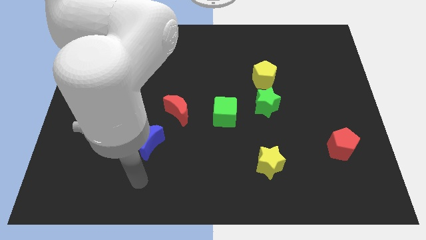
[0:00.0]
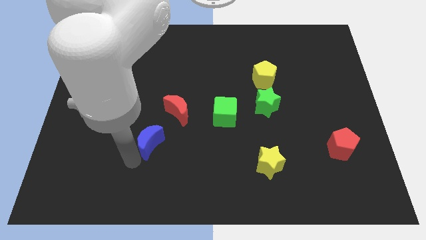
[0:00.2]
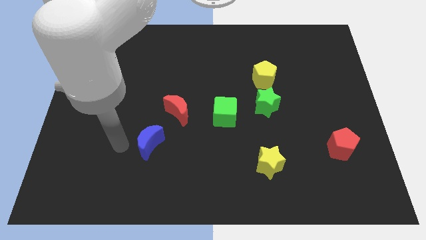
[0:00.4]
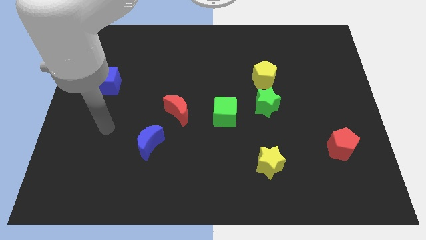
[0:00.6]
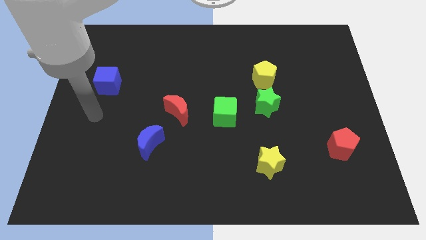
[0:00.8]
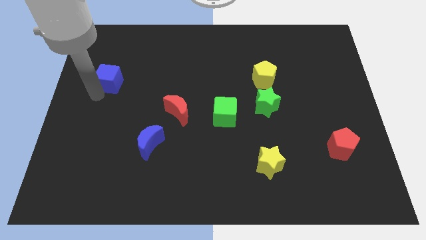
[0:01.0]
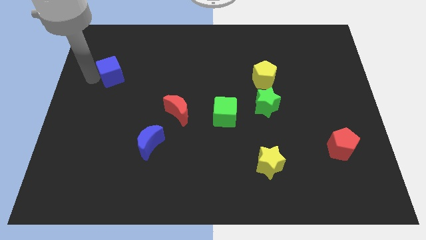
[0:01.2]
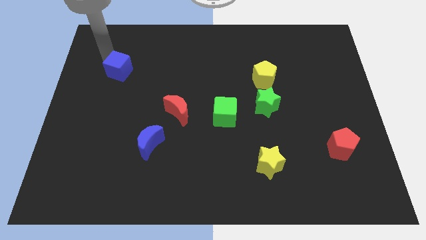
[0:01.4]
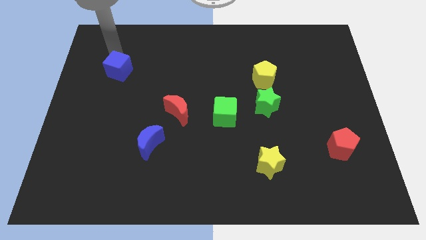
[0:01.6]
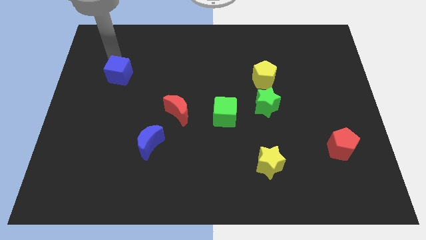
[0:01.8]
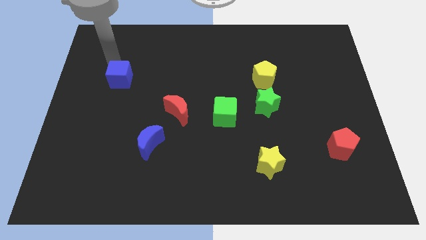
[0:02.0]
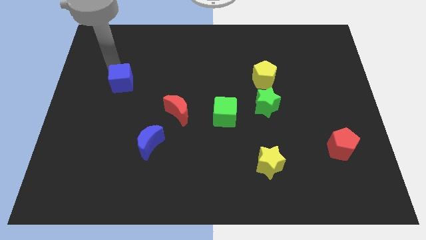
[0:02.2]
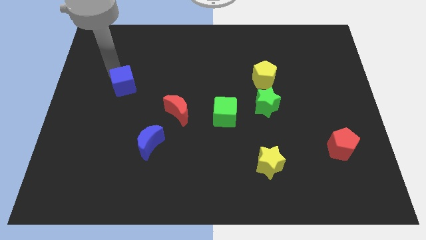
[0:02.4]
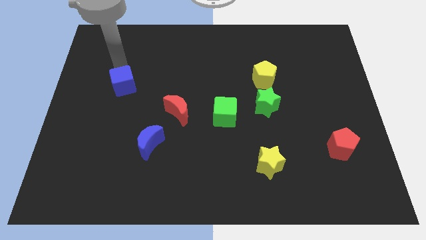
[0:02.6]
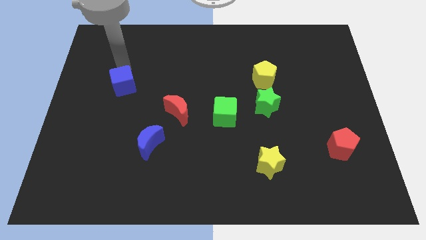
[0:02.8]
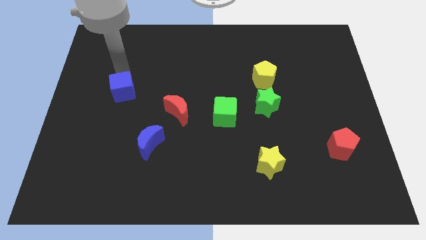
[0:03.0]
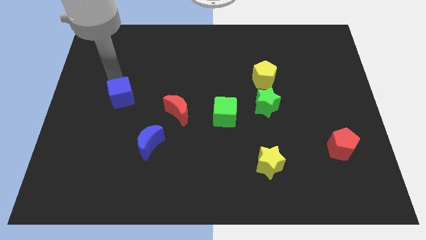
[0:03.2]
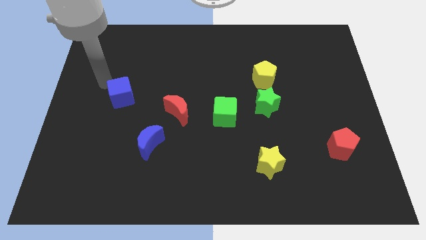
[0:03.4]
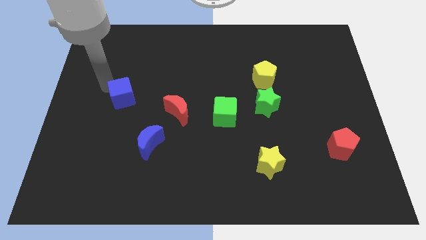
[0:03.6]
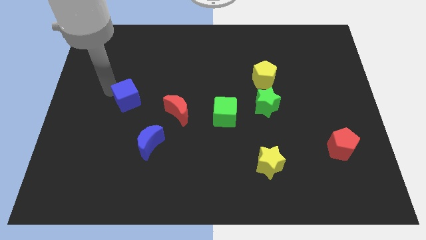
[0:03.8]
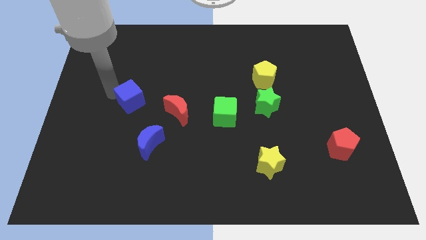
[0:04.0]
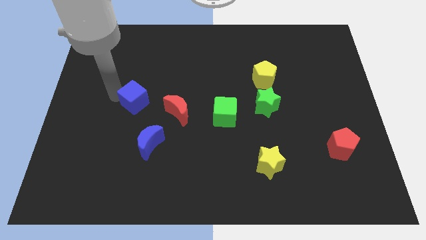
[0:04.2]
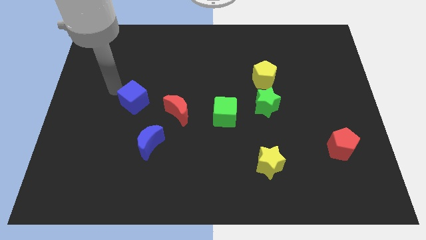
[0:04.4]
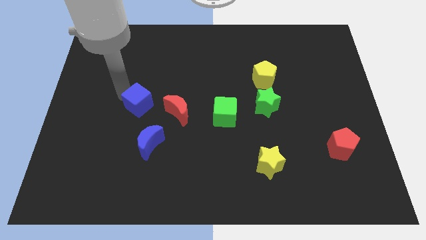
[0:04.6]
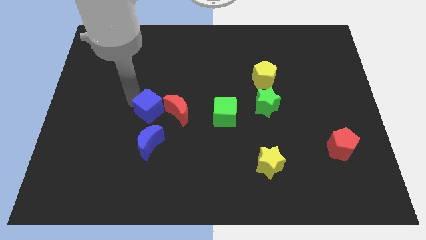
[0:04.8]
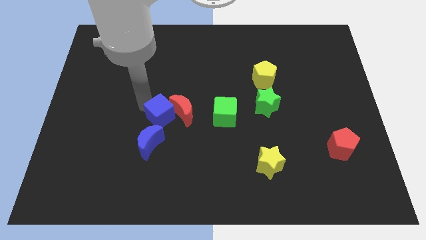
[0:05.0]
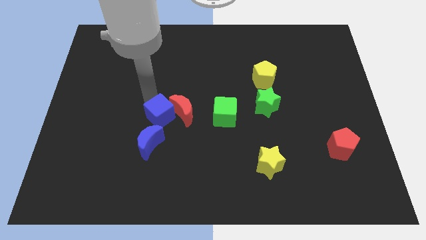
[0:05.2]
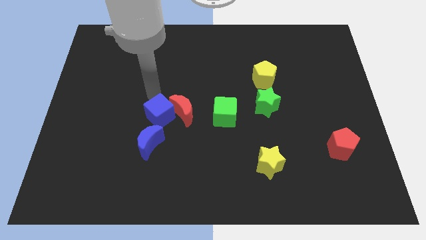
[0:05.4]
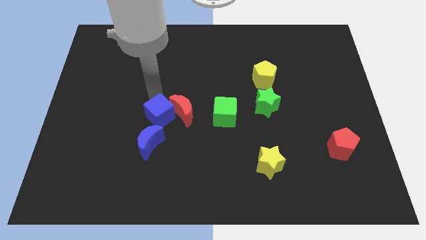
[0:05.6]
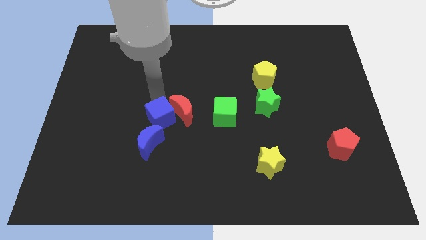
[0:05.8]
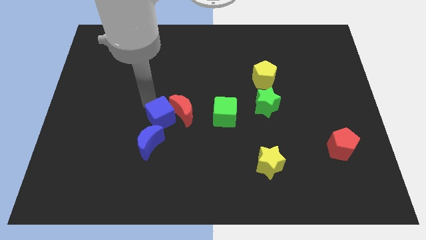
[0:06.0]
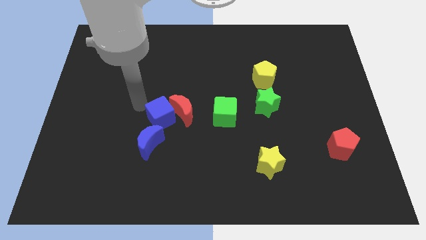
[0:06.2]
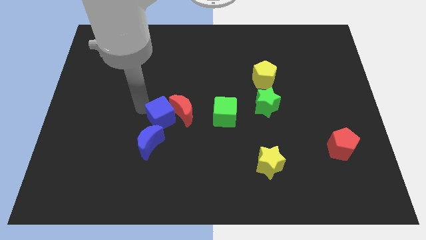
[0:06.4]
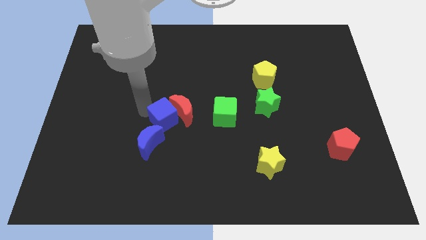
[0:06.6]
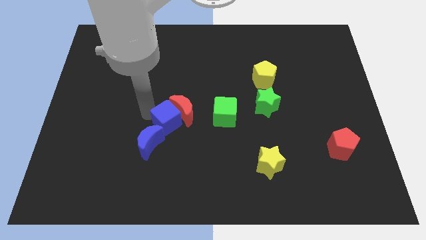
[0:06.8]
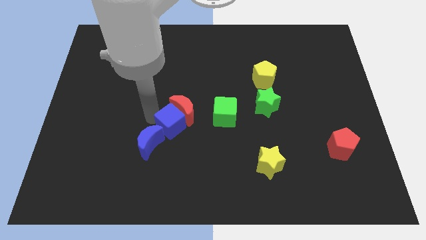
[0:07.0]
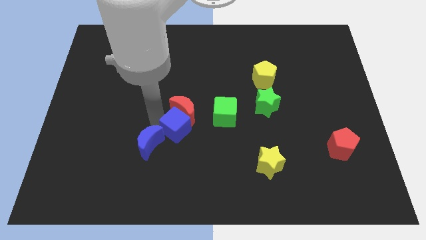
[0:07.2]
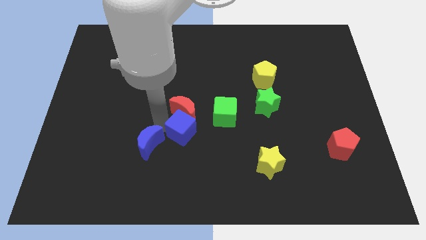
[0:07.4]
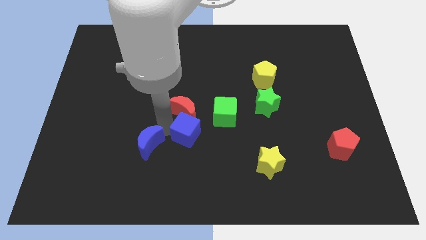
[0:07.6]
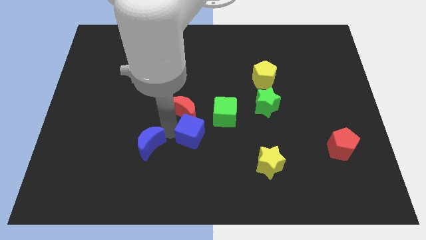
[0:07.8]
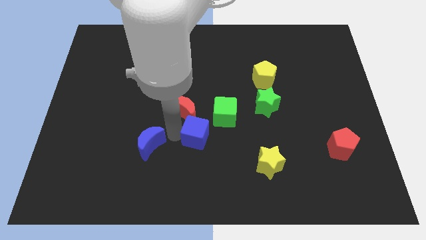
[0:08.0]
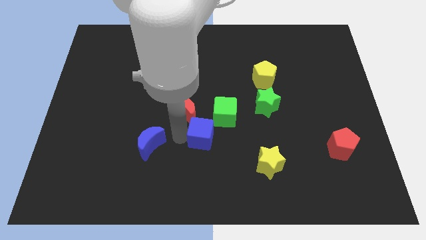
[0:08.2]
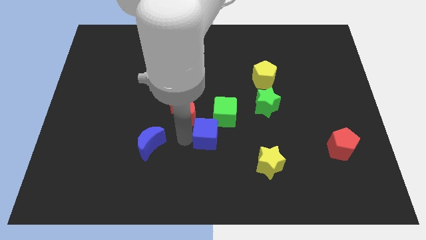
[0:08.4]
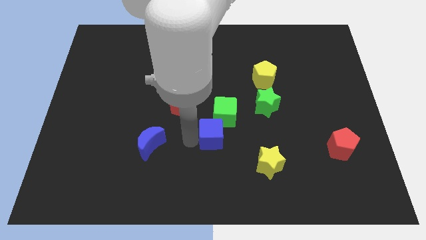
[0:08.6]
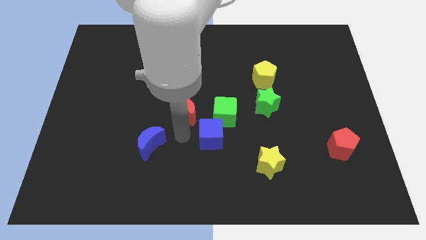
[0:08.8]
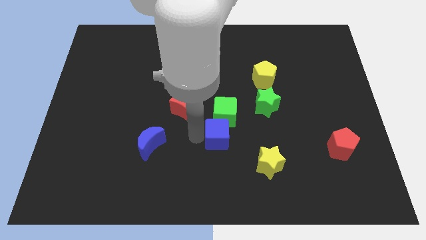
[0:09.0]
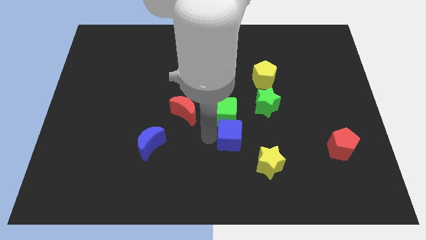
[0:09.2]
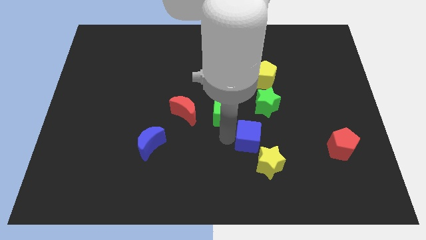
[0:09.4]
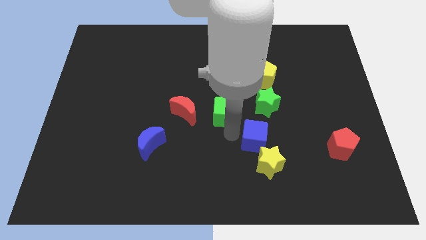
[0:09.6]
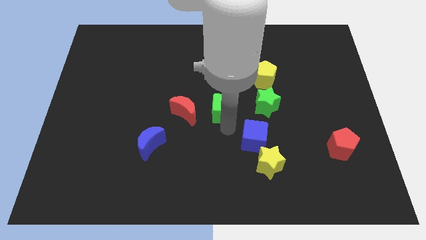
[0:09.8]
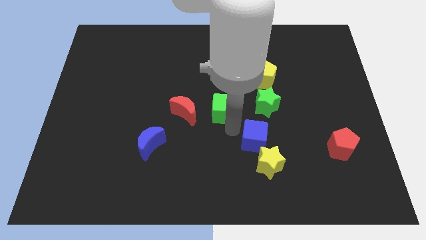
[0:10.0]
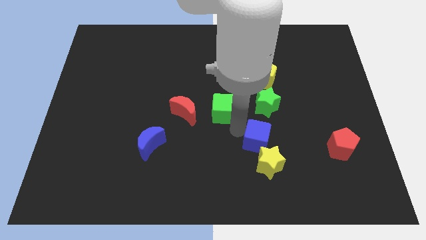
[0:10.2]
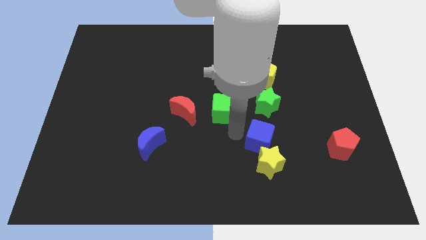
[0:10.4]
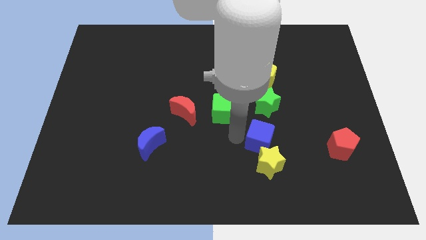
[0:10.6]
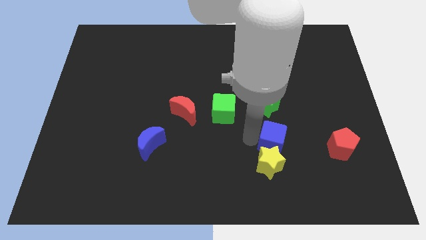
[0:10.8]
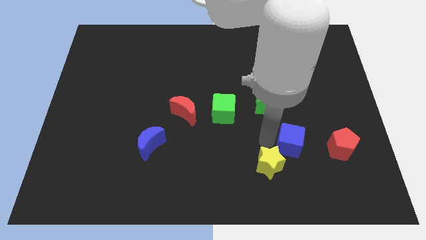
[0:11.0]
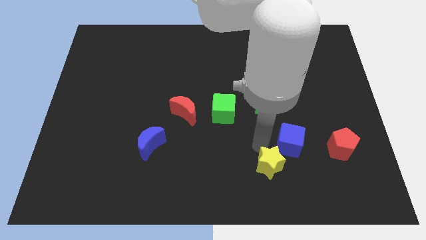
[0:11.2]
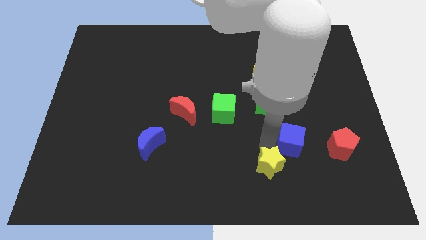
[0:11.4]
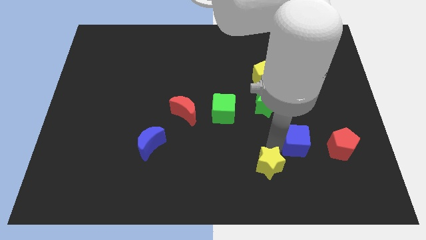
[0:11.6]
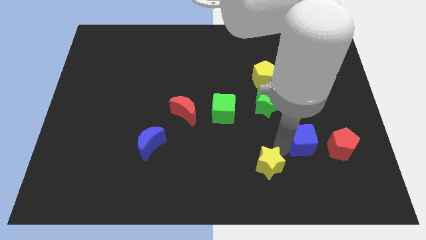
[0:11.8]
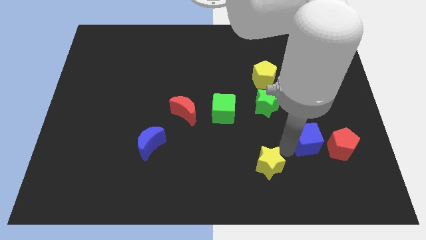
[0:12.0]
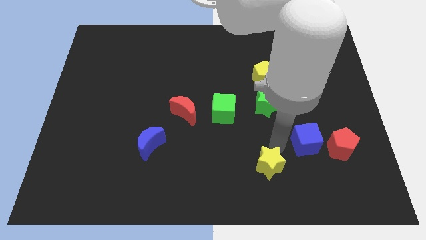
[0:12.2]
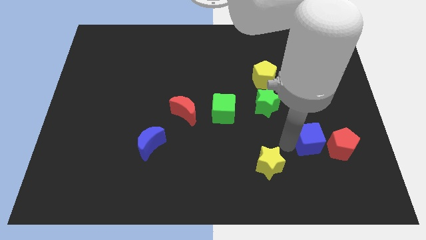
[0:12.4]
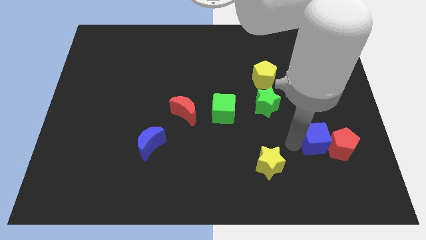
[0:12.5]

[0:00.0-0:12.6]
put the blue cube next to the red pentagon
